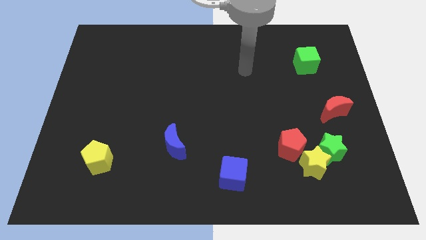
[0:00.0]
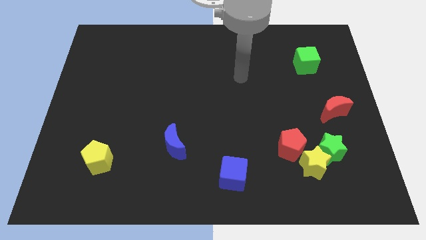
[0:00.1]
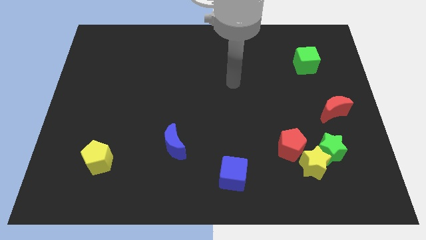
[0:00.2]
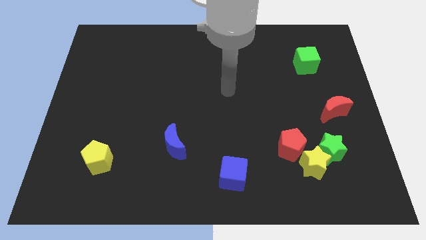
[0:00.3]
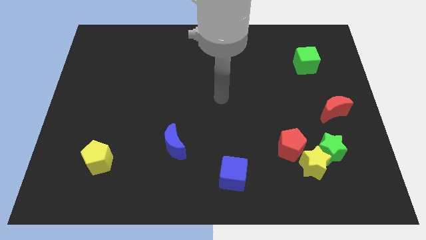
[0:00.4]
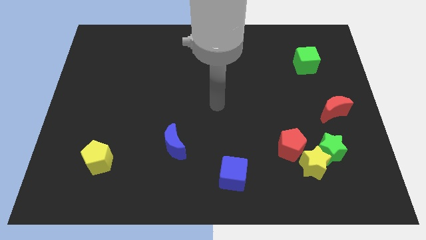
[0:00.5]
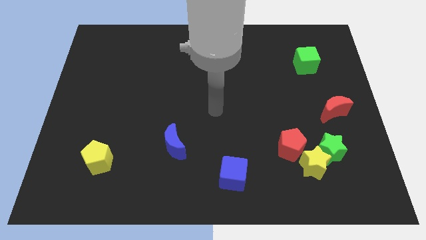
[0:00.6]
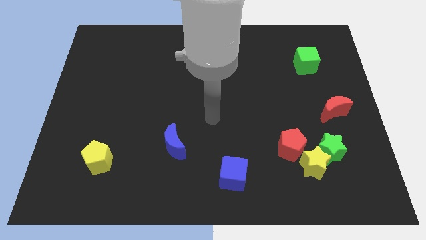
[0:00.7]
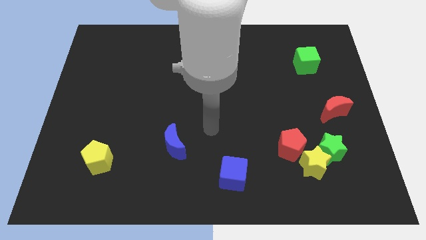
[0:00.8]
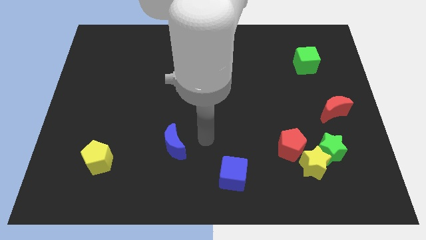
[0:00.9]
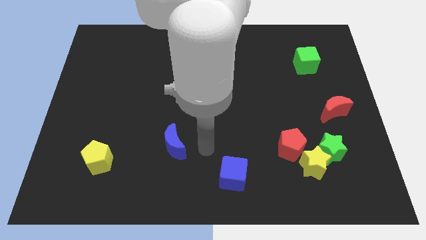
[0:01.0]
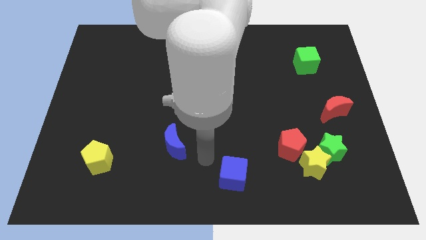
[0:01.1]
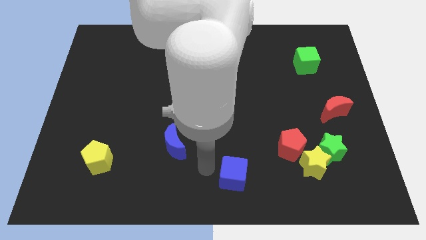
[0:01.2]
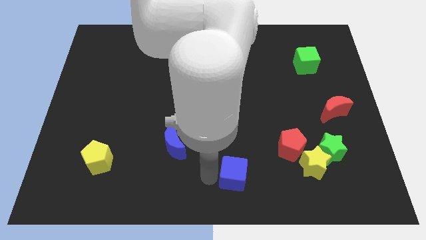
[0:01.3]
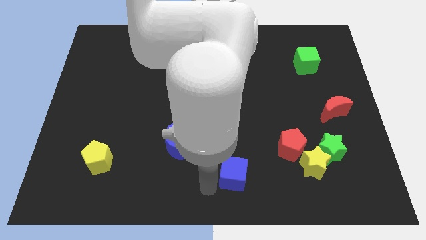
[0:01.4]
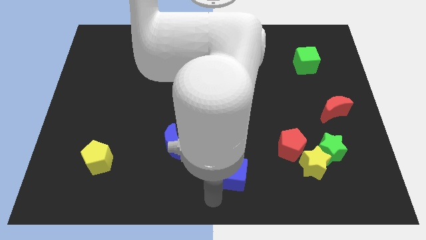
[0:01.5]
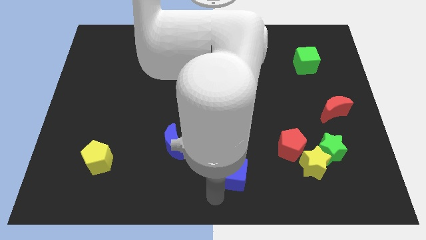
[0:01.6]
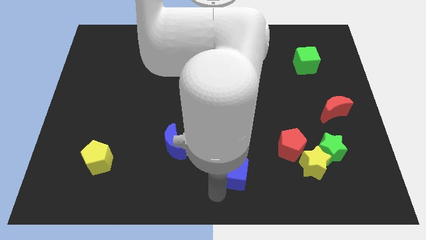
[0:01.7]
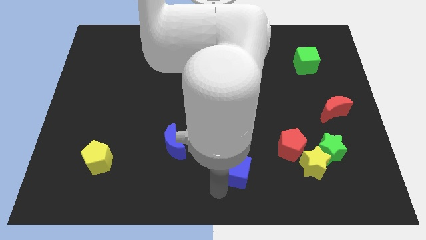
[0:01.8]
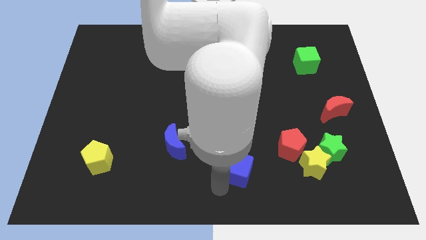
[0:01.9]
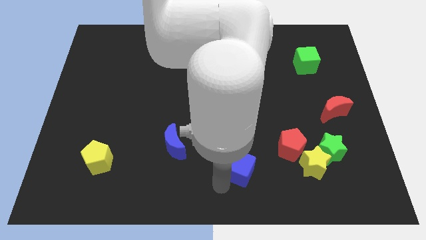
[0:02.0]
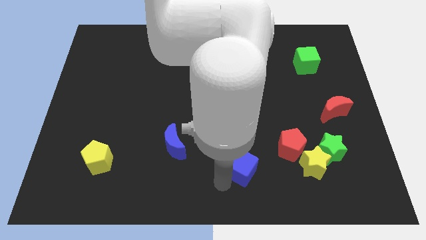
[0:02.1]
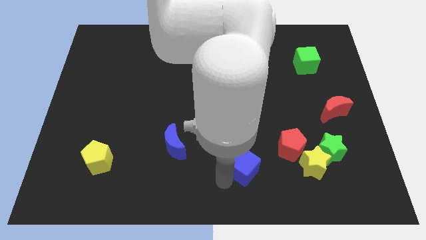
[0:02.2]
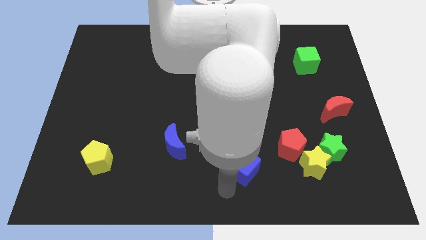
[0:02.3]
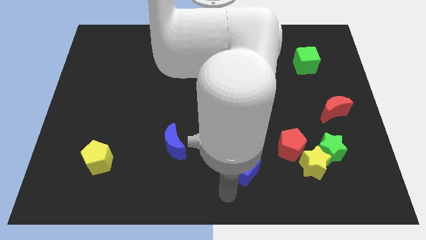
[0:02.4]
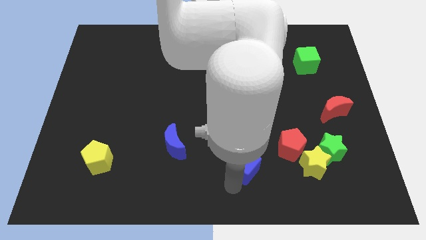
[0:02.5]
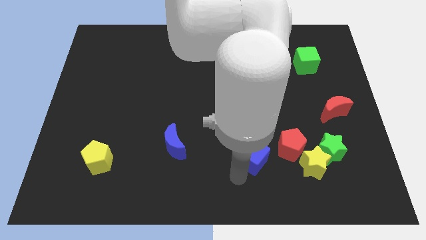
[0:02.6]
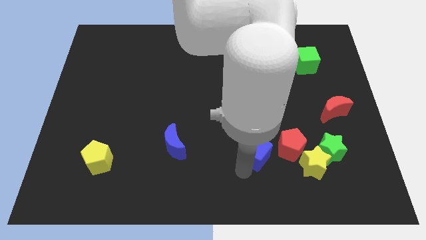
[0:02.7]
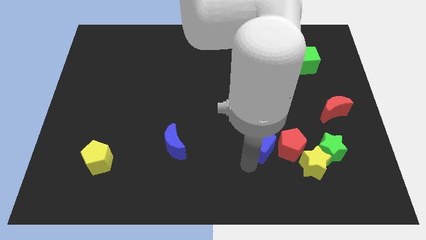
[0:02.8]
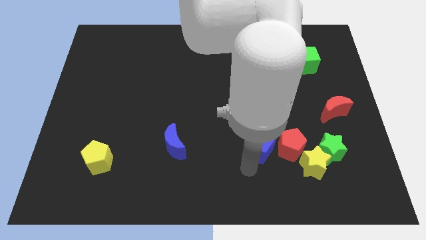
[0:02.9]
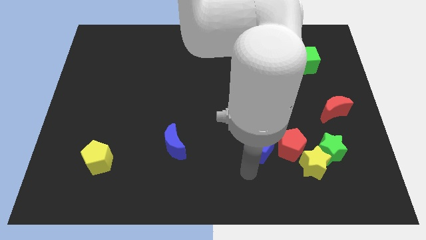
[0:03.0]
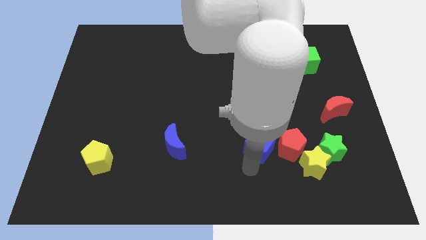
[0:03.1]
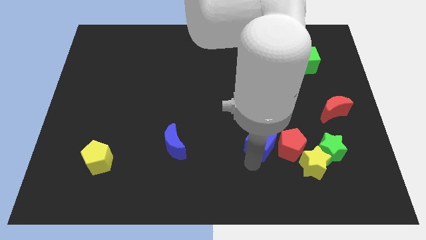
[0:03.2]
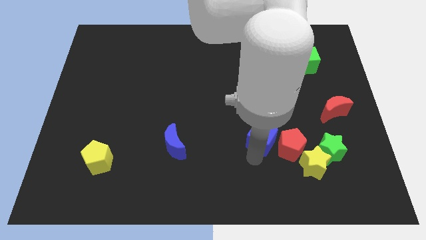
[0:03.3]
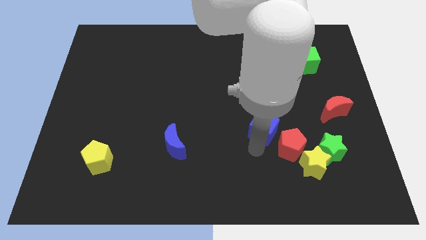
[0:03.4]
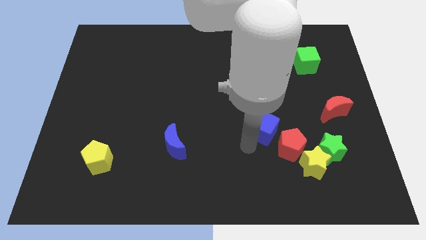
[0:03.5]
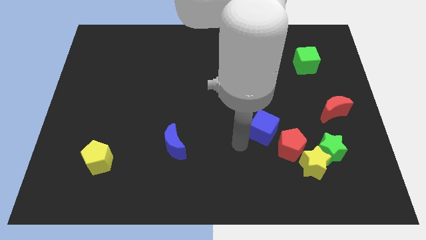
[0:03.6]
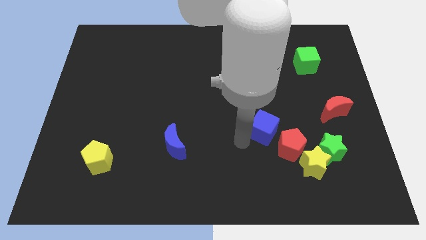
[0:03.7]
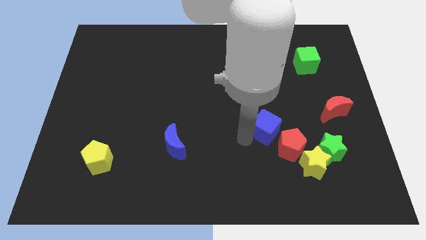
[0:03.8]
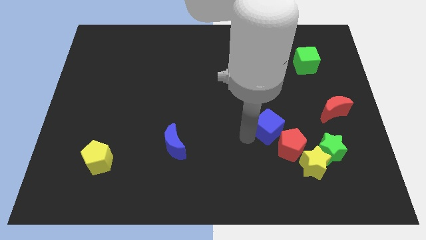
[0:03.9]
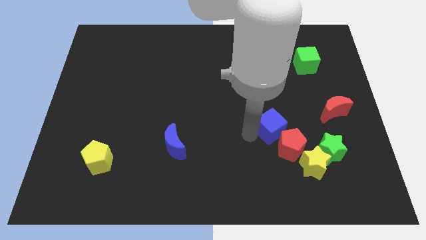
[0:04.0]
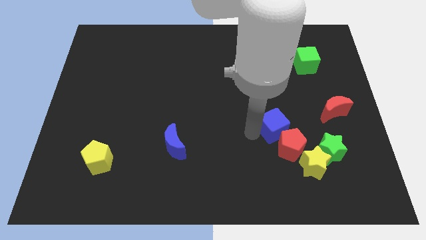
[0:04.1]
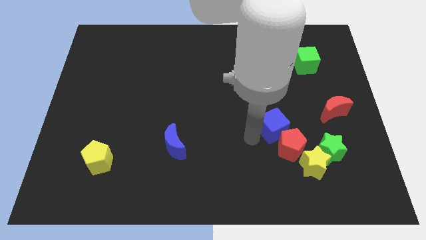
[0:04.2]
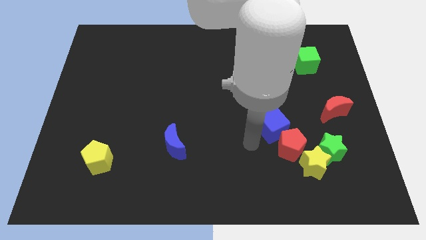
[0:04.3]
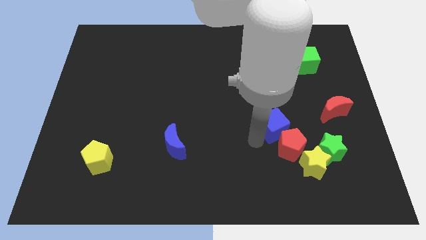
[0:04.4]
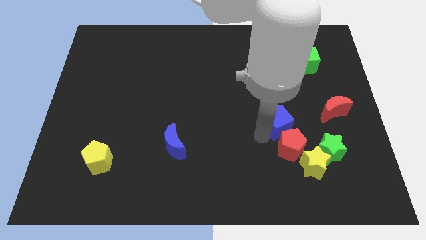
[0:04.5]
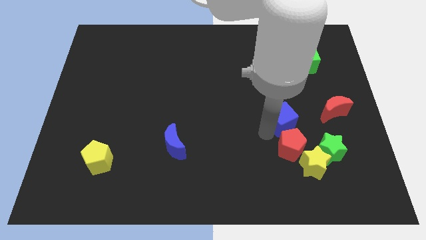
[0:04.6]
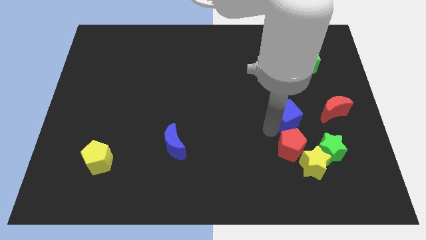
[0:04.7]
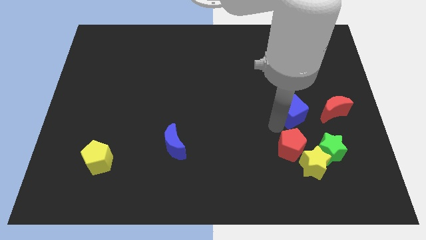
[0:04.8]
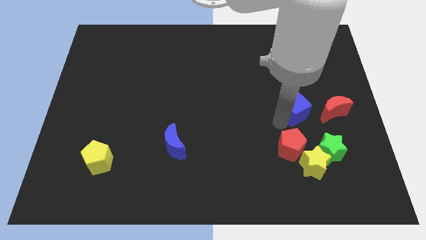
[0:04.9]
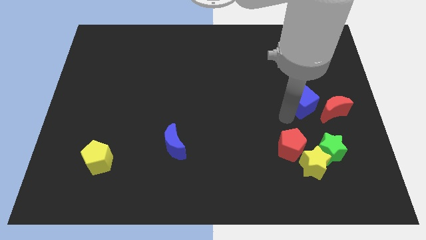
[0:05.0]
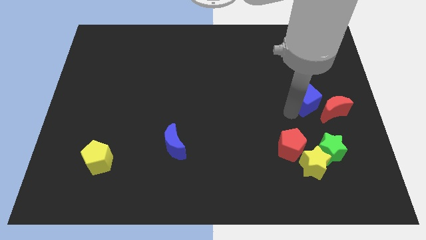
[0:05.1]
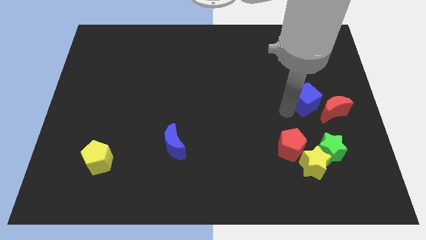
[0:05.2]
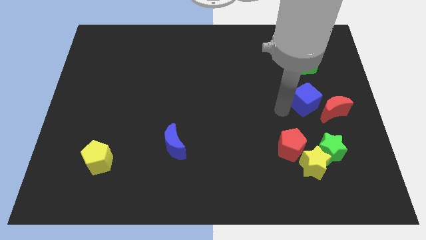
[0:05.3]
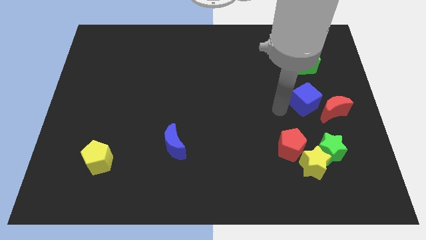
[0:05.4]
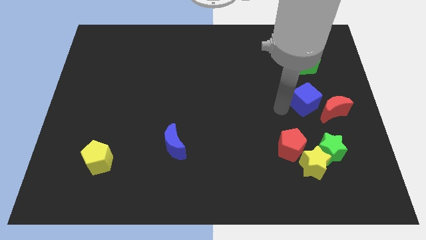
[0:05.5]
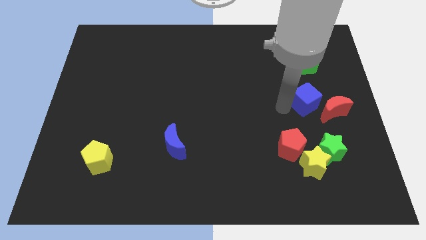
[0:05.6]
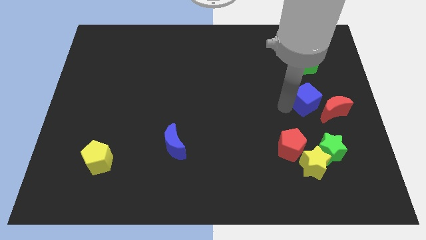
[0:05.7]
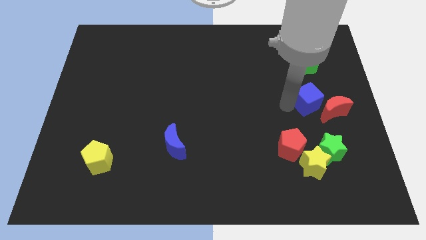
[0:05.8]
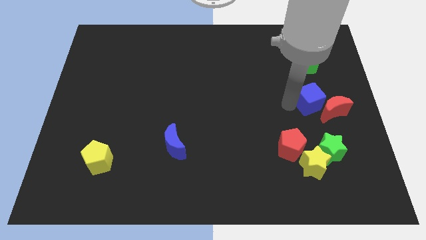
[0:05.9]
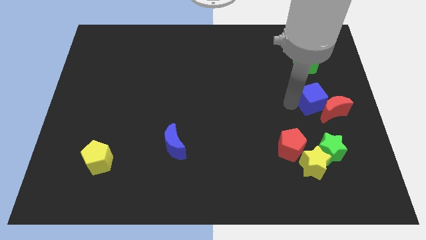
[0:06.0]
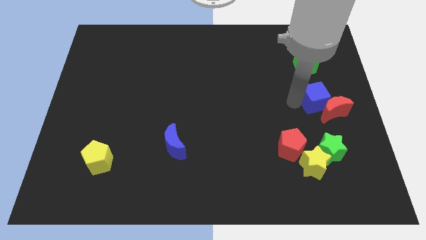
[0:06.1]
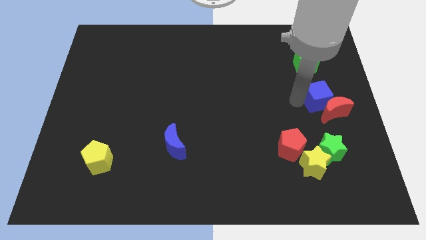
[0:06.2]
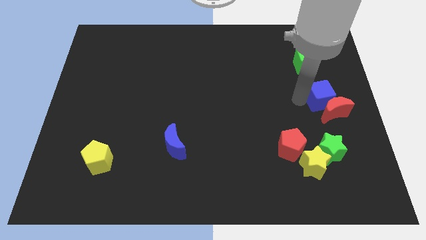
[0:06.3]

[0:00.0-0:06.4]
push the blue cube to the right side of the board

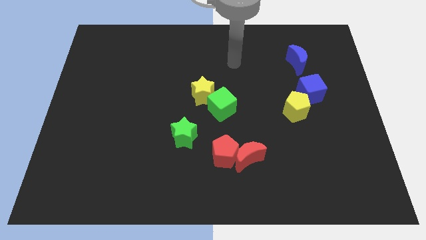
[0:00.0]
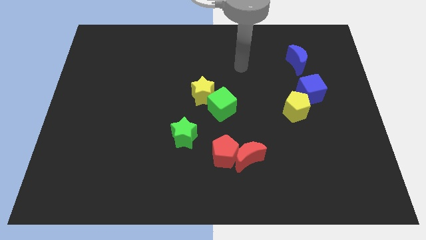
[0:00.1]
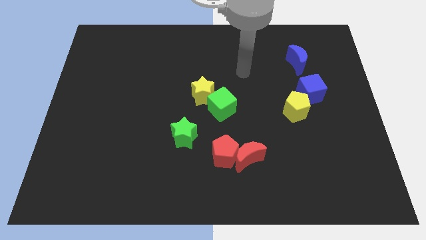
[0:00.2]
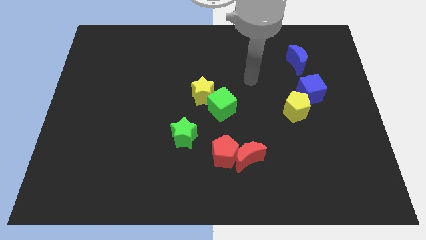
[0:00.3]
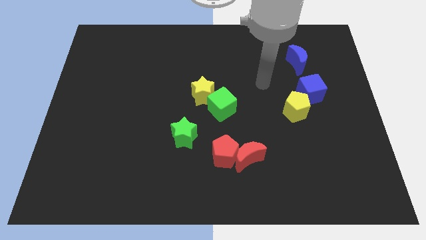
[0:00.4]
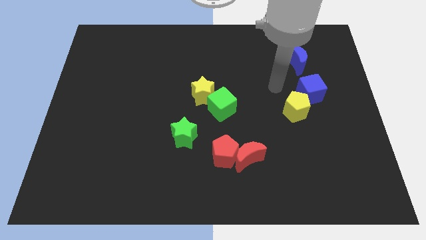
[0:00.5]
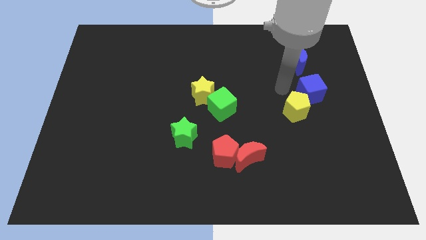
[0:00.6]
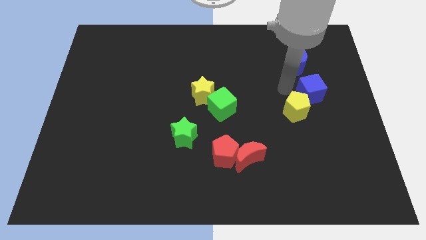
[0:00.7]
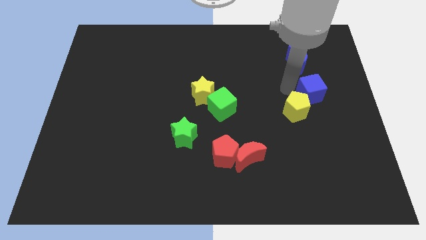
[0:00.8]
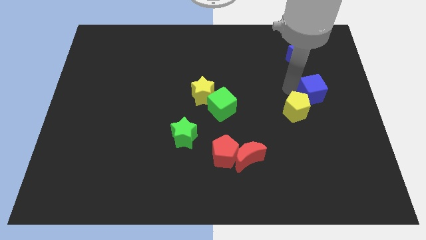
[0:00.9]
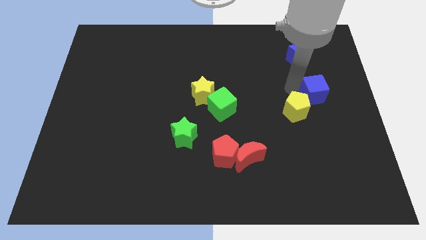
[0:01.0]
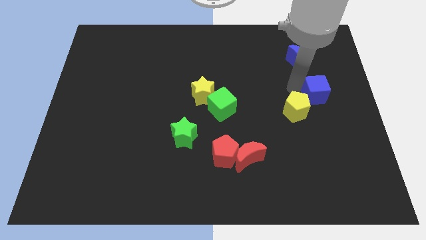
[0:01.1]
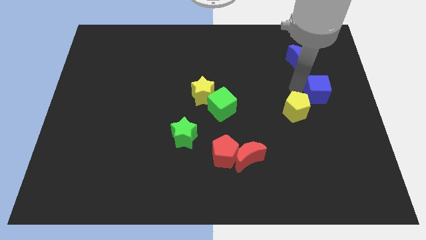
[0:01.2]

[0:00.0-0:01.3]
put the blue cube to the center right
